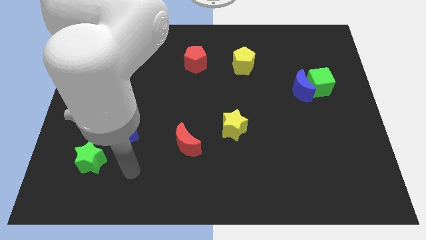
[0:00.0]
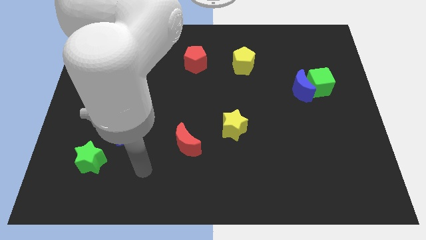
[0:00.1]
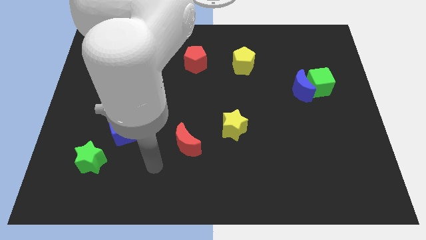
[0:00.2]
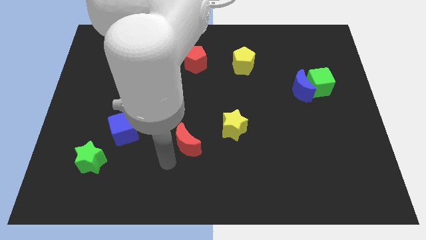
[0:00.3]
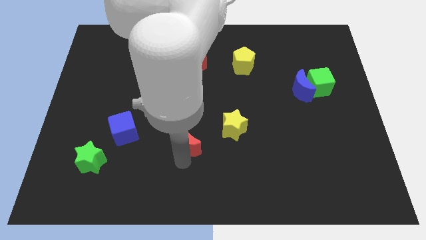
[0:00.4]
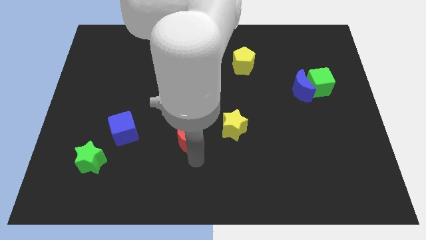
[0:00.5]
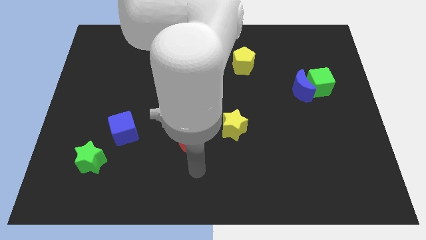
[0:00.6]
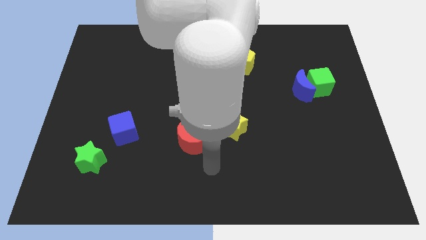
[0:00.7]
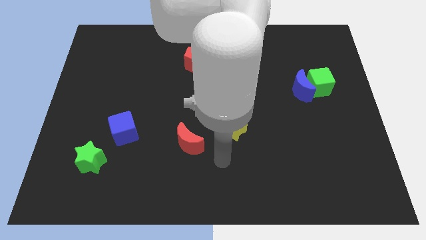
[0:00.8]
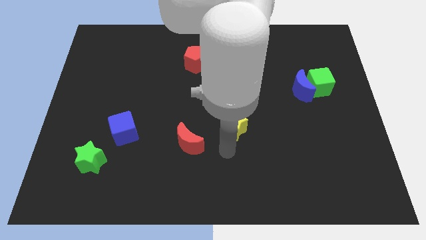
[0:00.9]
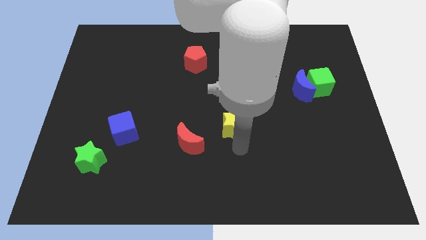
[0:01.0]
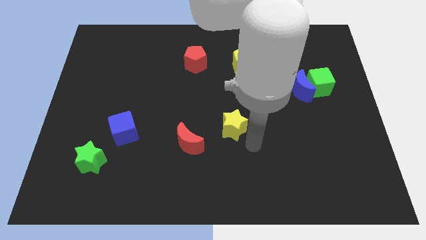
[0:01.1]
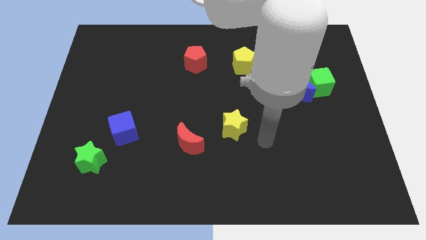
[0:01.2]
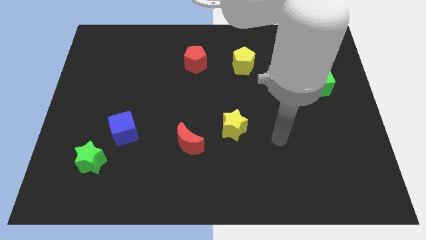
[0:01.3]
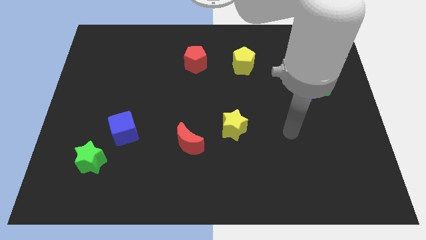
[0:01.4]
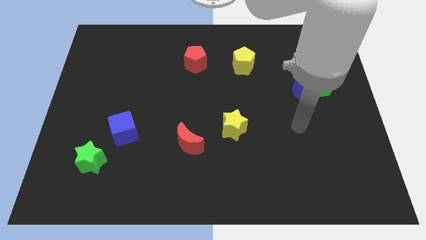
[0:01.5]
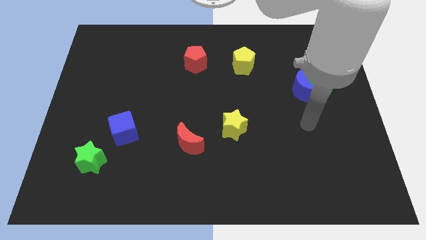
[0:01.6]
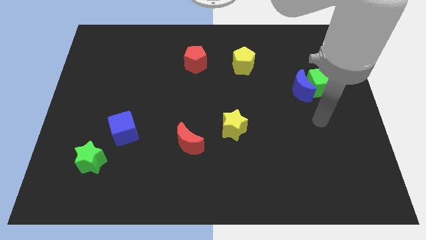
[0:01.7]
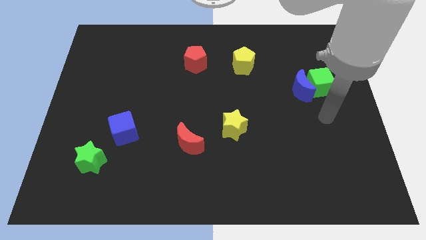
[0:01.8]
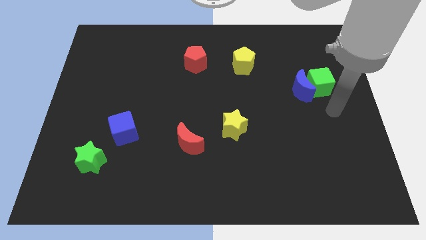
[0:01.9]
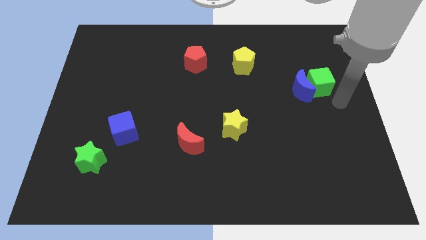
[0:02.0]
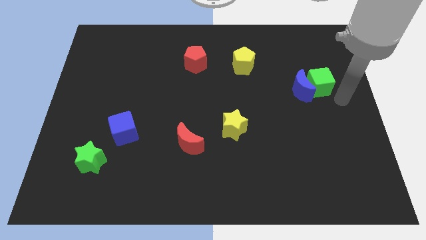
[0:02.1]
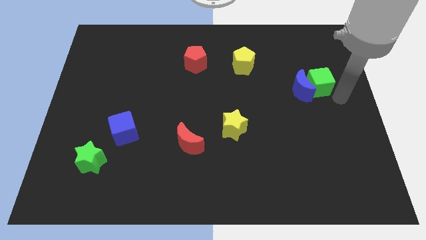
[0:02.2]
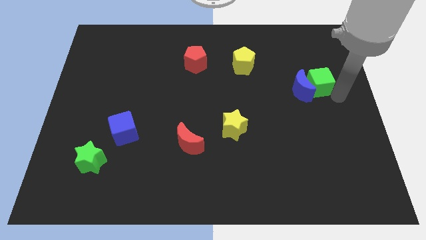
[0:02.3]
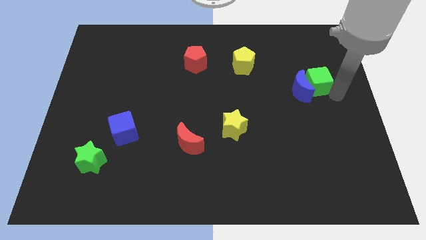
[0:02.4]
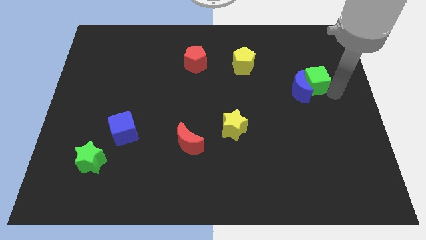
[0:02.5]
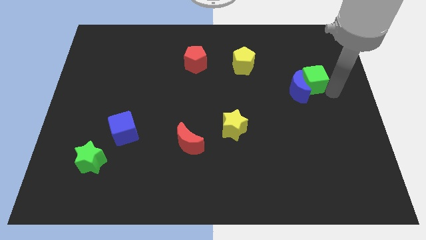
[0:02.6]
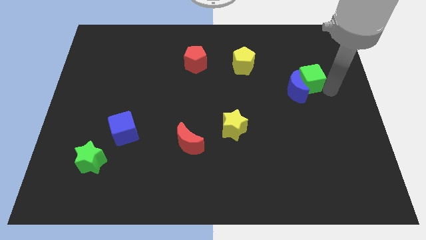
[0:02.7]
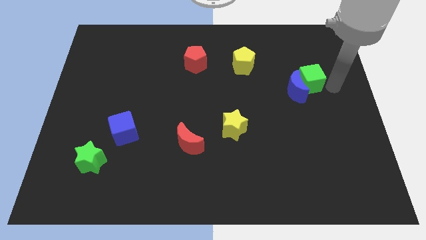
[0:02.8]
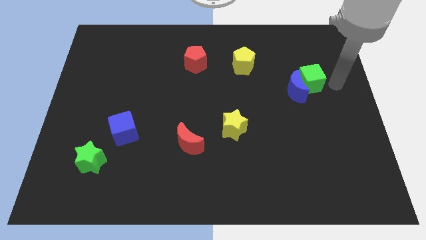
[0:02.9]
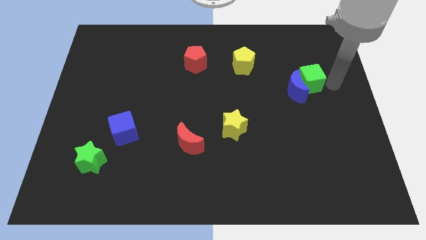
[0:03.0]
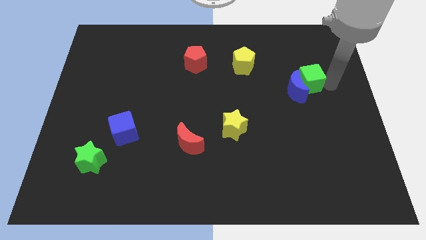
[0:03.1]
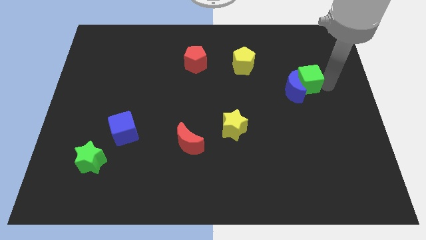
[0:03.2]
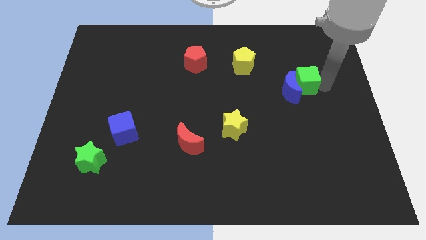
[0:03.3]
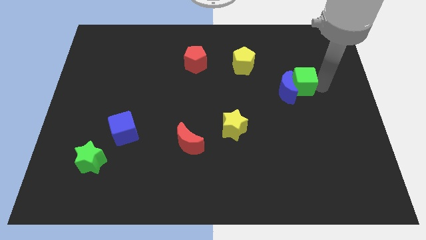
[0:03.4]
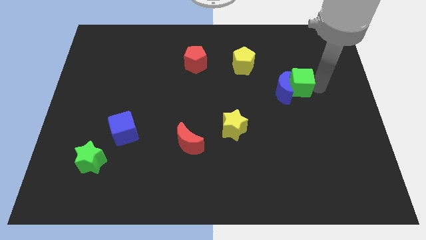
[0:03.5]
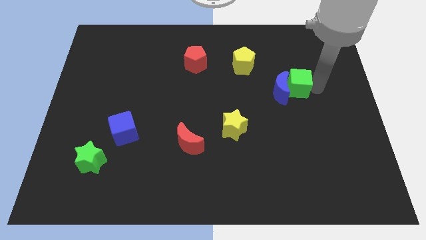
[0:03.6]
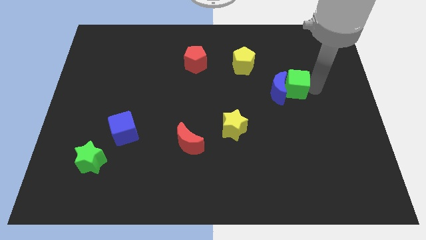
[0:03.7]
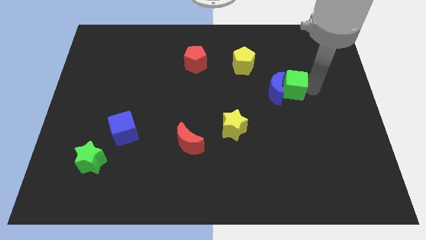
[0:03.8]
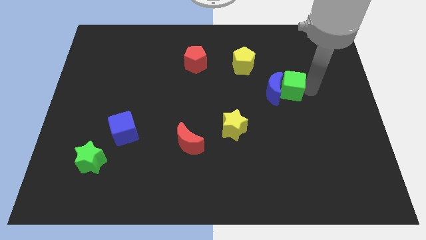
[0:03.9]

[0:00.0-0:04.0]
push the green cube left somewhat

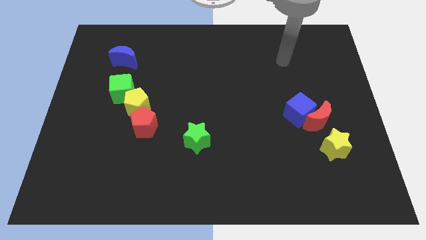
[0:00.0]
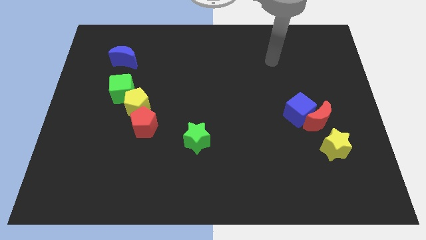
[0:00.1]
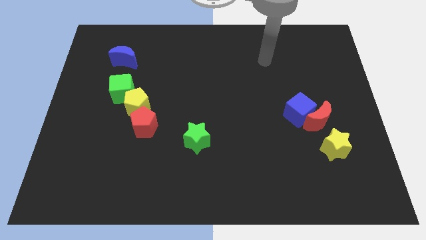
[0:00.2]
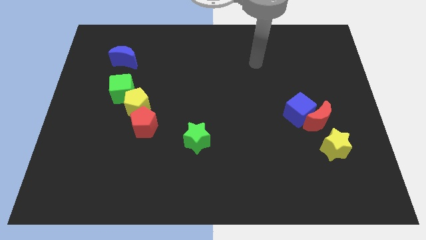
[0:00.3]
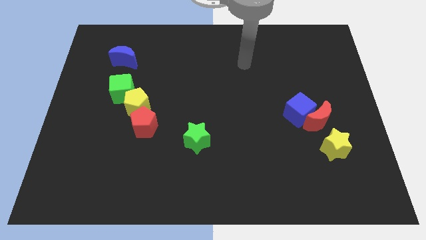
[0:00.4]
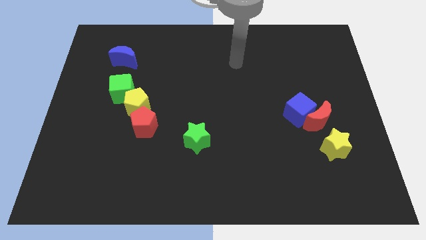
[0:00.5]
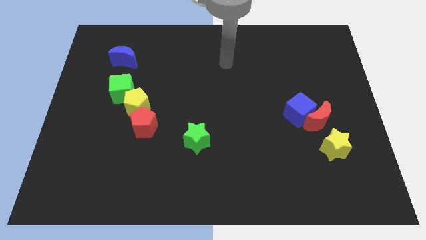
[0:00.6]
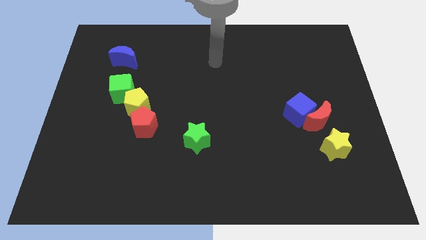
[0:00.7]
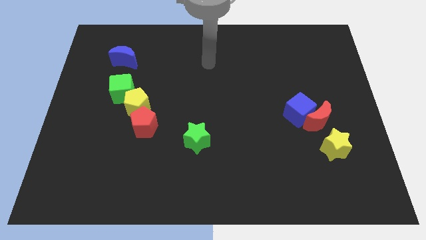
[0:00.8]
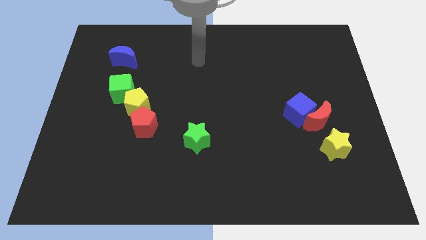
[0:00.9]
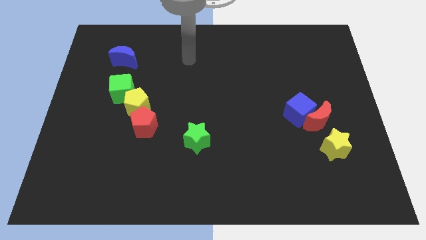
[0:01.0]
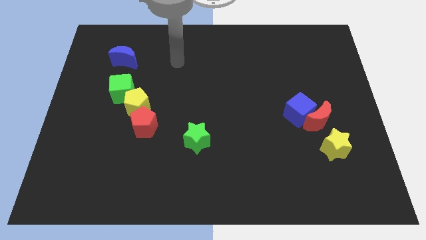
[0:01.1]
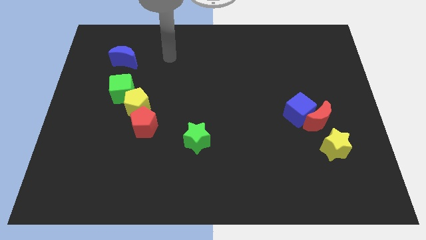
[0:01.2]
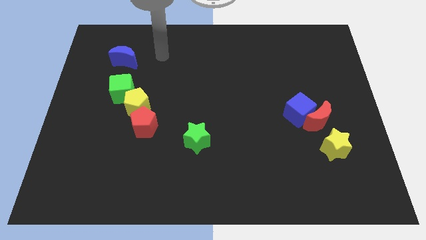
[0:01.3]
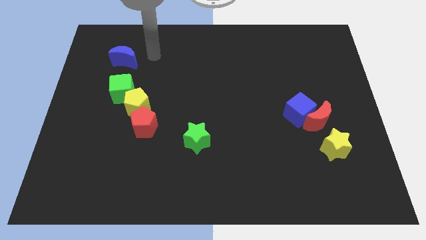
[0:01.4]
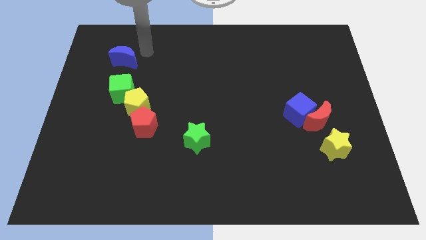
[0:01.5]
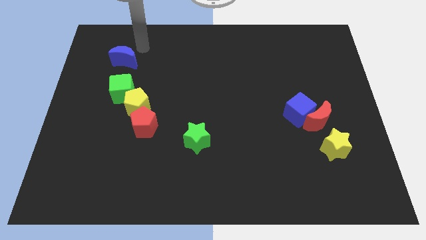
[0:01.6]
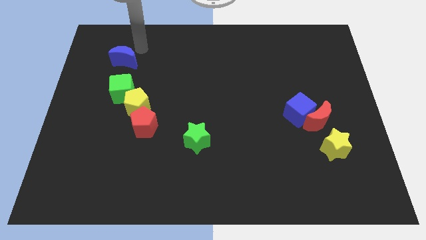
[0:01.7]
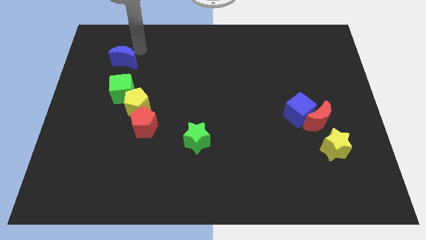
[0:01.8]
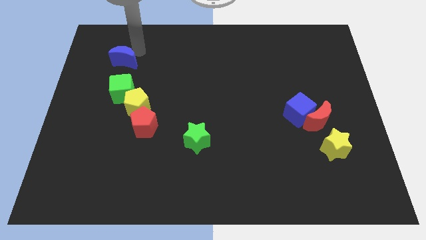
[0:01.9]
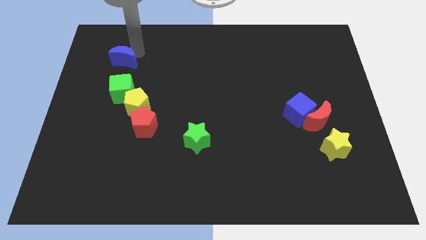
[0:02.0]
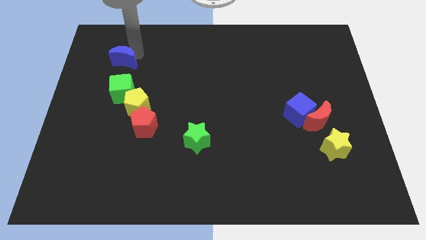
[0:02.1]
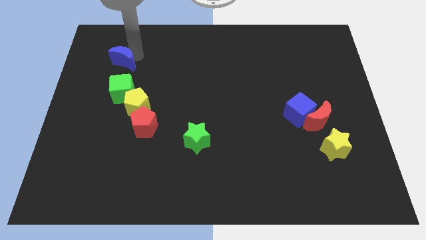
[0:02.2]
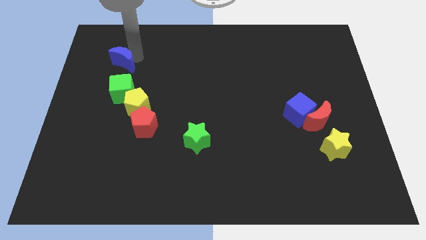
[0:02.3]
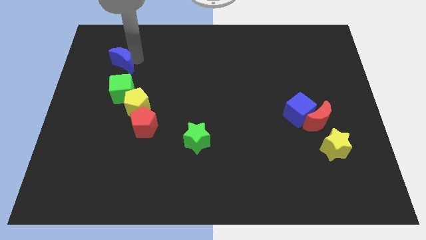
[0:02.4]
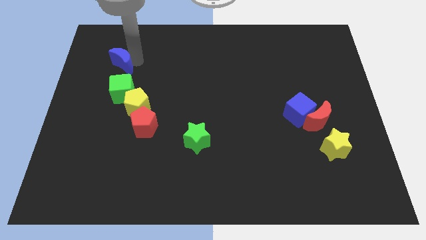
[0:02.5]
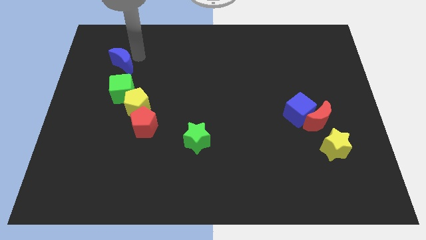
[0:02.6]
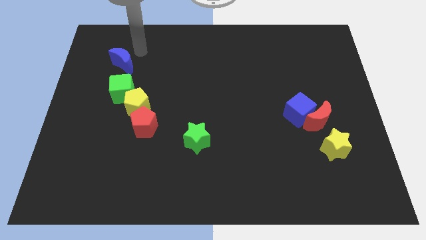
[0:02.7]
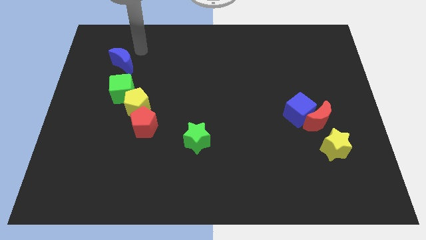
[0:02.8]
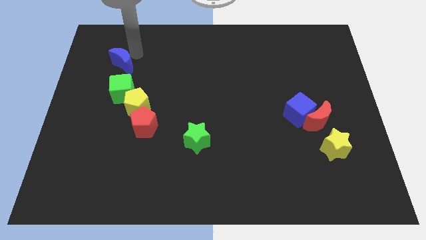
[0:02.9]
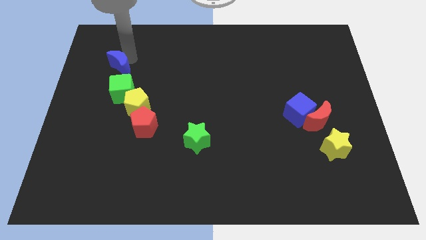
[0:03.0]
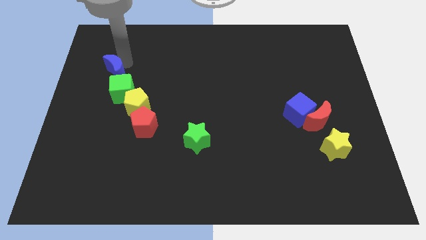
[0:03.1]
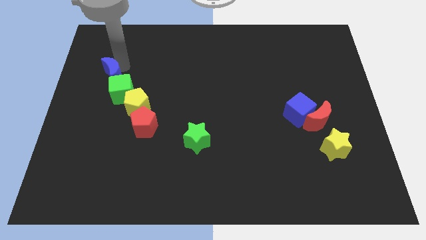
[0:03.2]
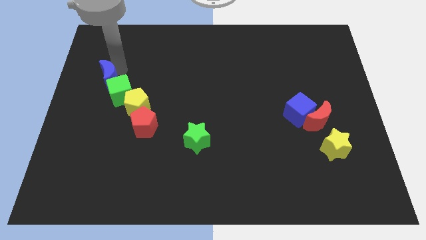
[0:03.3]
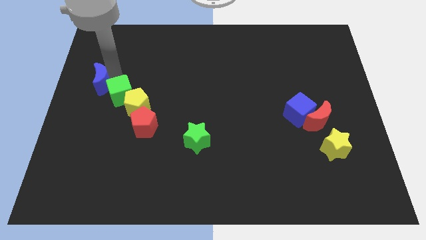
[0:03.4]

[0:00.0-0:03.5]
push the blue moon slightly down

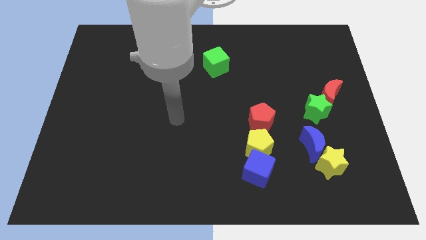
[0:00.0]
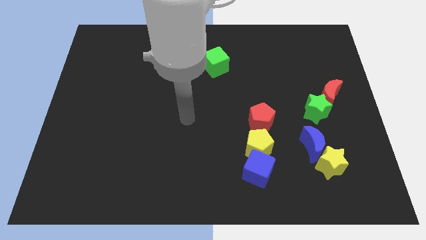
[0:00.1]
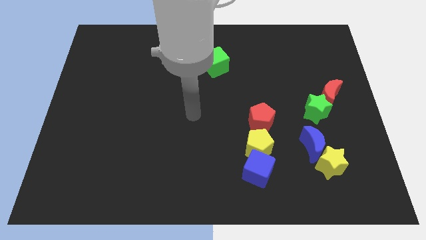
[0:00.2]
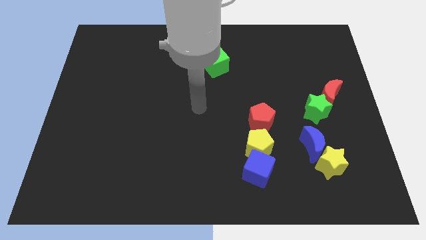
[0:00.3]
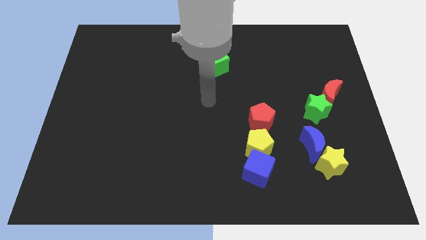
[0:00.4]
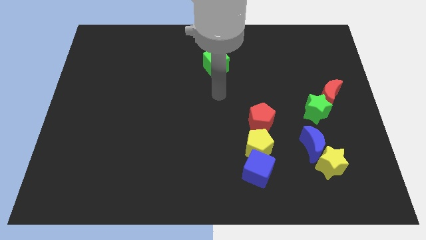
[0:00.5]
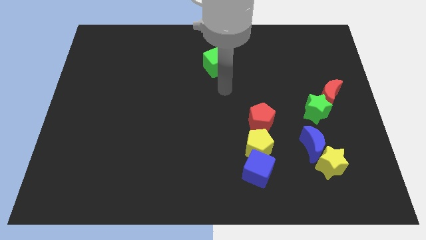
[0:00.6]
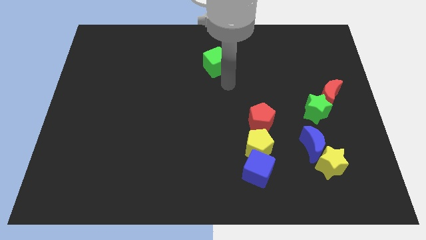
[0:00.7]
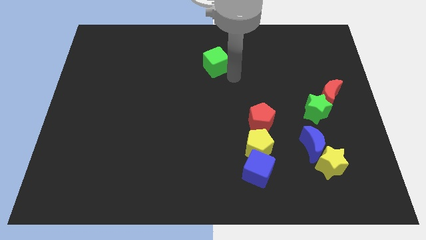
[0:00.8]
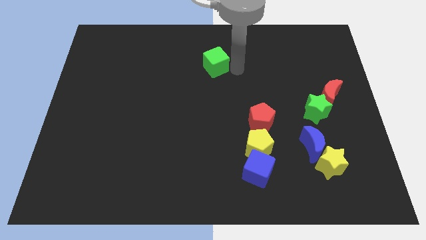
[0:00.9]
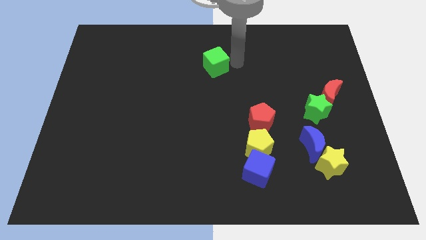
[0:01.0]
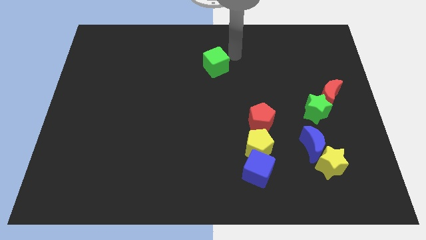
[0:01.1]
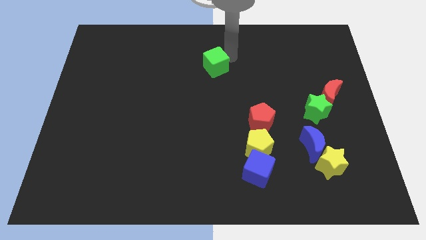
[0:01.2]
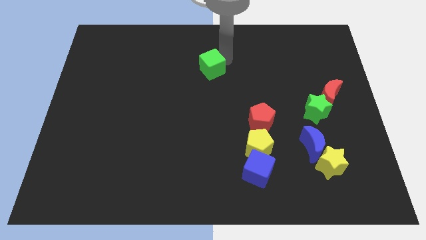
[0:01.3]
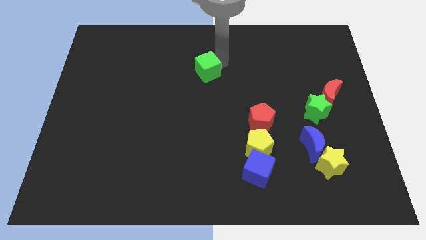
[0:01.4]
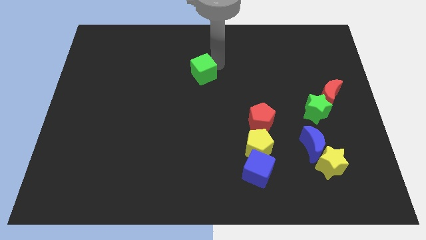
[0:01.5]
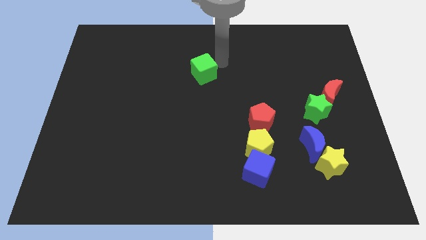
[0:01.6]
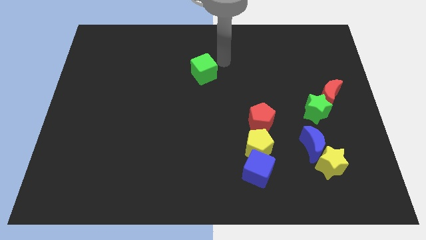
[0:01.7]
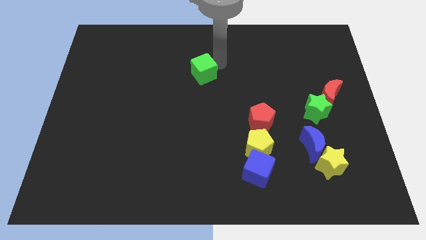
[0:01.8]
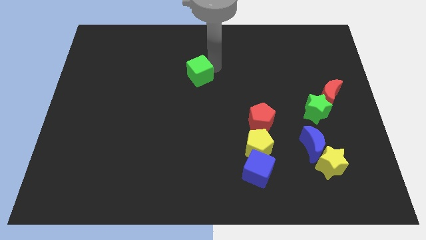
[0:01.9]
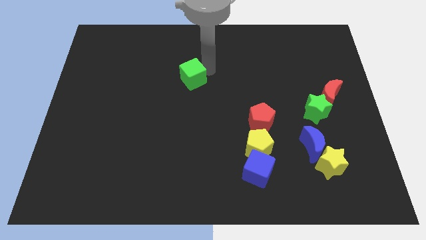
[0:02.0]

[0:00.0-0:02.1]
move the green cube somewhat downwards and left diagonally
